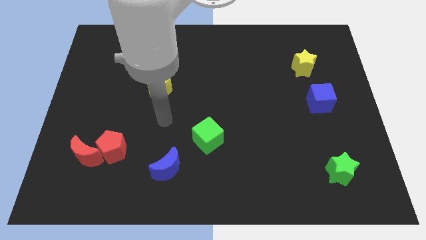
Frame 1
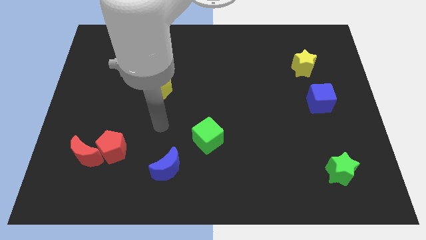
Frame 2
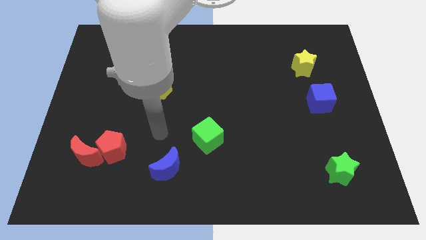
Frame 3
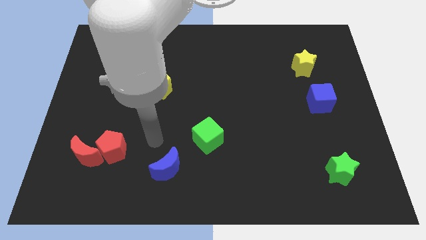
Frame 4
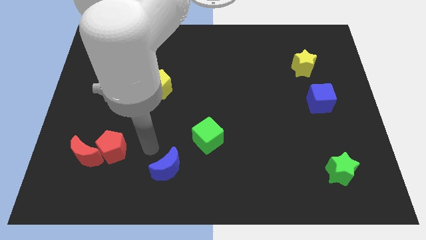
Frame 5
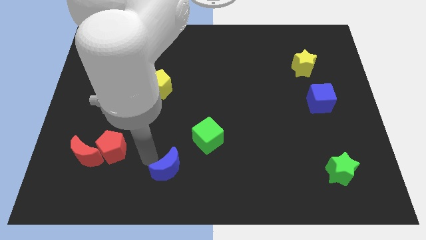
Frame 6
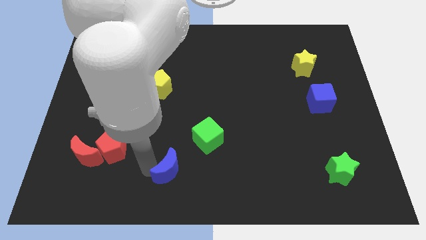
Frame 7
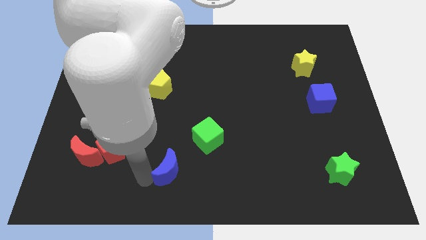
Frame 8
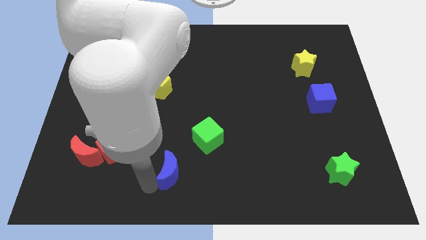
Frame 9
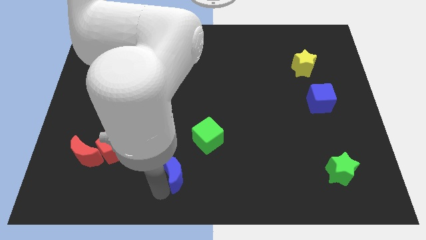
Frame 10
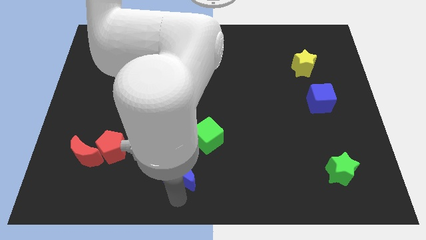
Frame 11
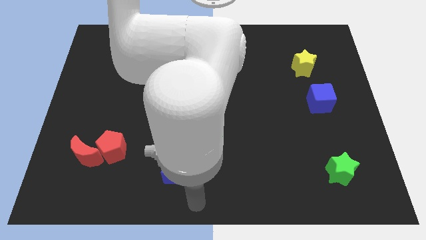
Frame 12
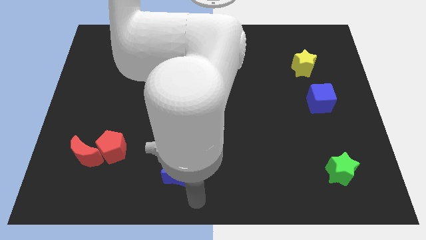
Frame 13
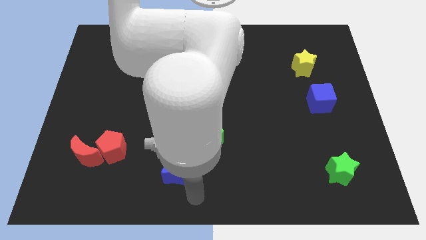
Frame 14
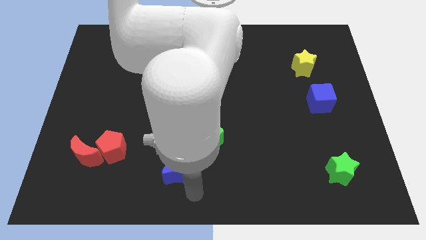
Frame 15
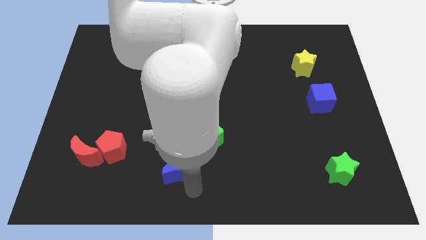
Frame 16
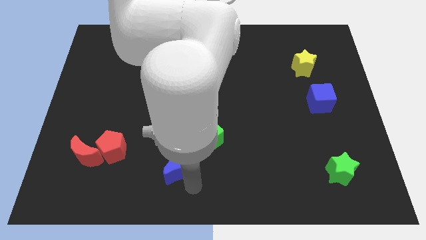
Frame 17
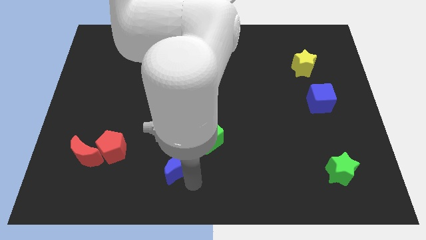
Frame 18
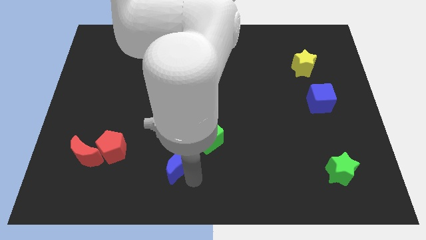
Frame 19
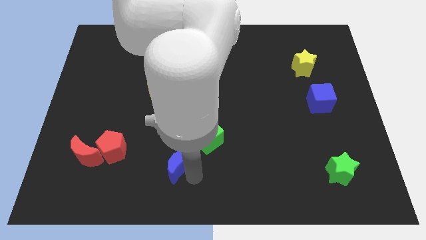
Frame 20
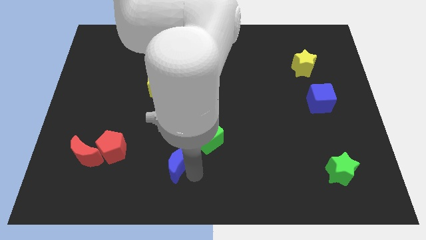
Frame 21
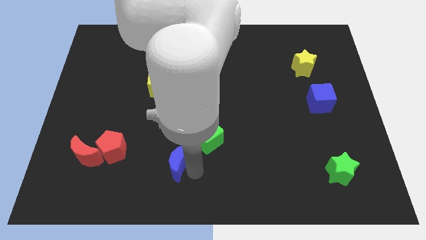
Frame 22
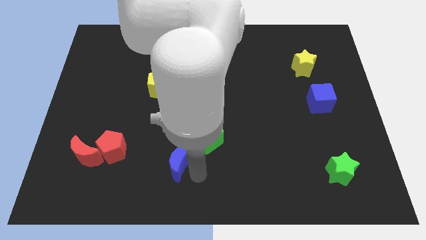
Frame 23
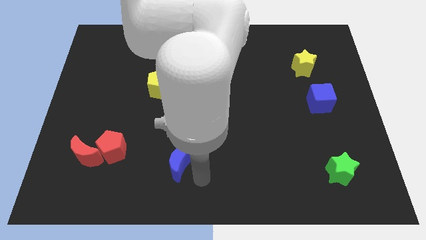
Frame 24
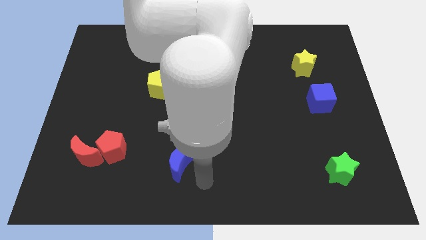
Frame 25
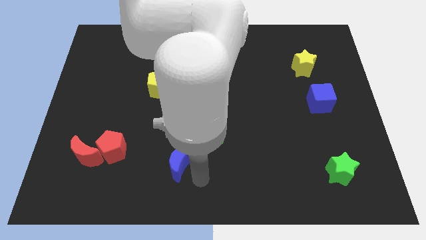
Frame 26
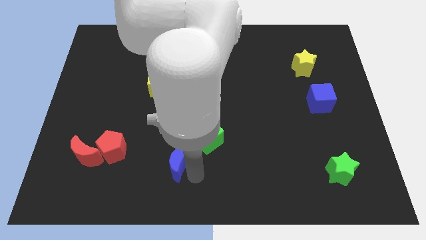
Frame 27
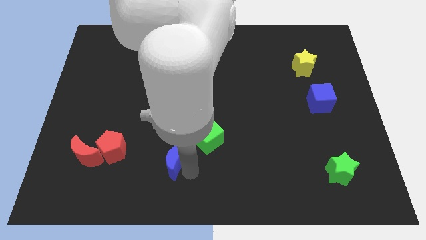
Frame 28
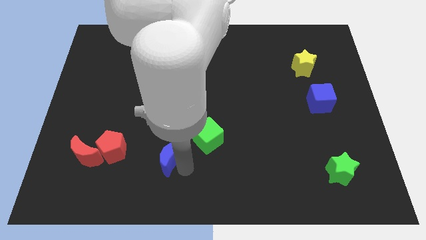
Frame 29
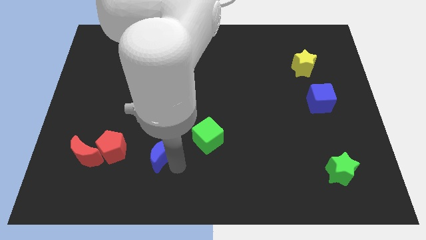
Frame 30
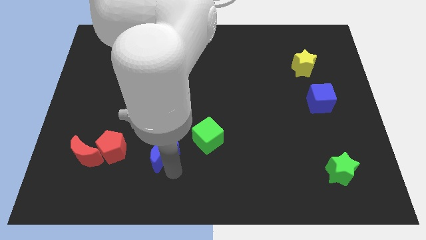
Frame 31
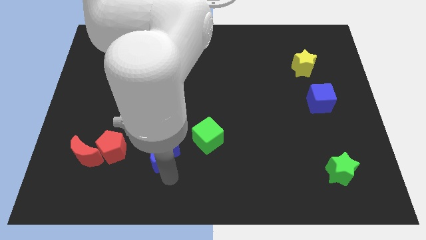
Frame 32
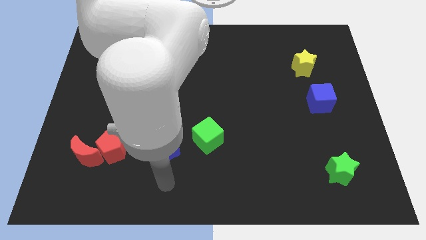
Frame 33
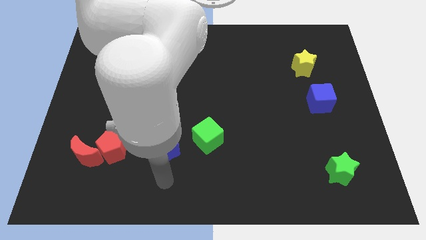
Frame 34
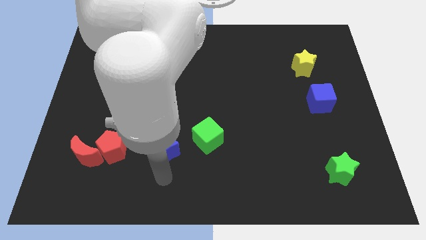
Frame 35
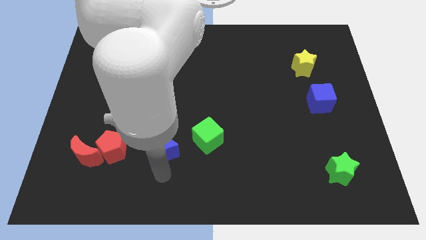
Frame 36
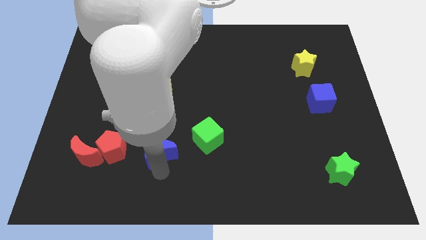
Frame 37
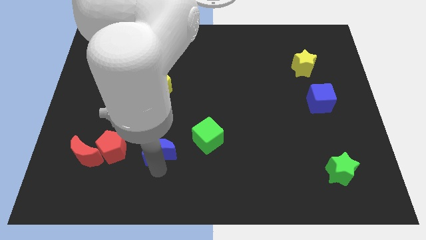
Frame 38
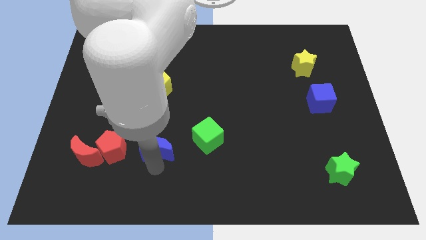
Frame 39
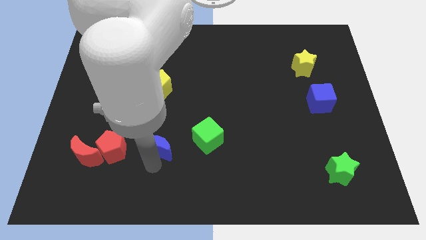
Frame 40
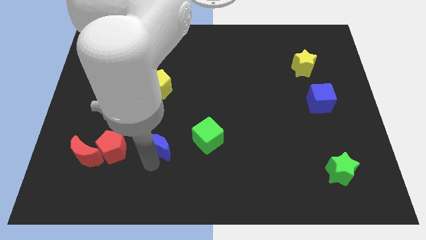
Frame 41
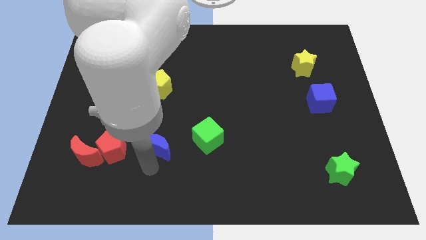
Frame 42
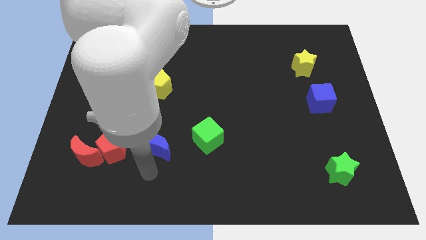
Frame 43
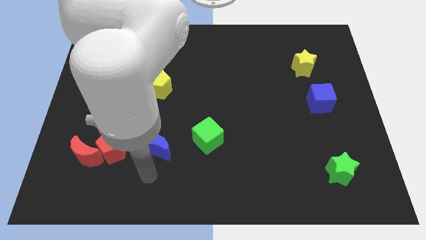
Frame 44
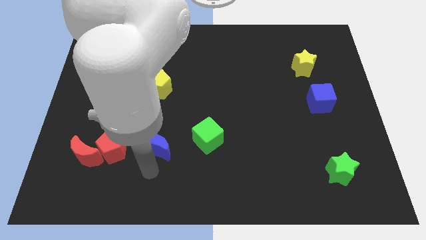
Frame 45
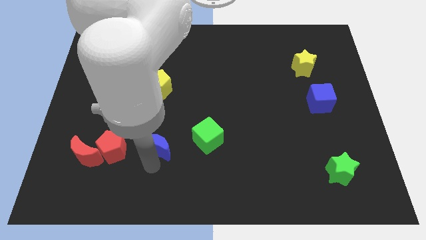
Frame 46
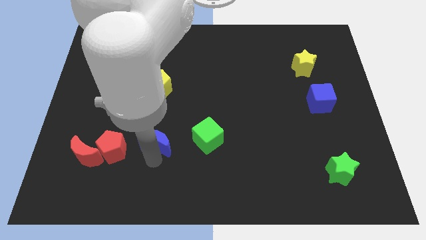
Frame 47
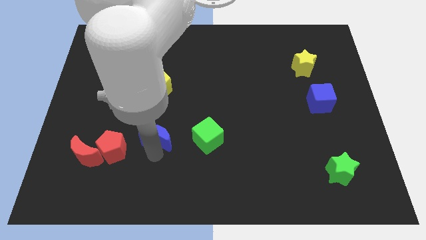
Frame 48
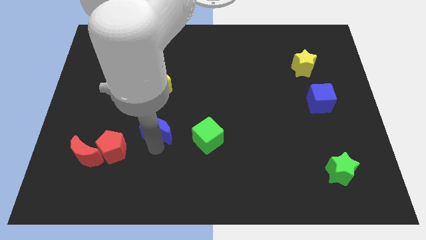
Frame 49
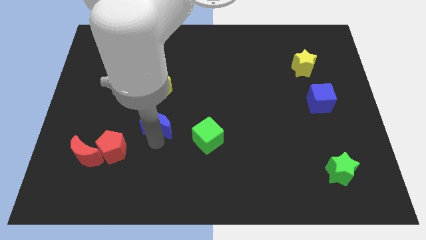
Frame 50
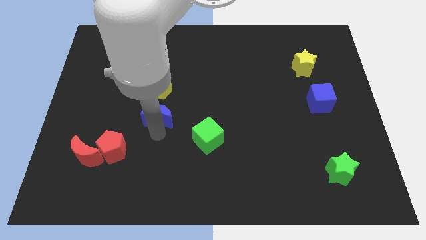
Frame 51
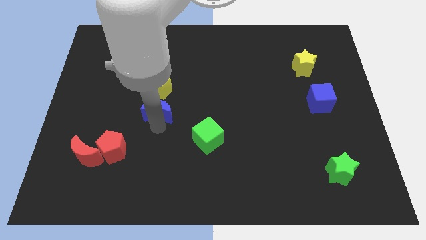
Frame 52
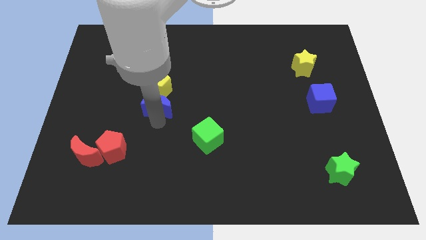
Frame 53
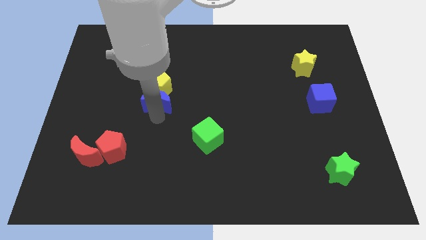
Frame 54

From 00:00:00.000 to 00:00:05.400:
put the blue moon next to the yellow pentagon

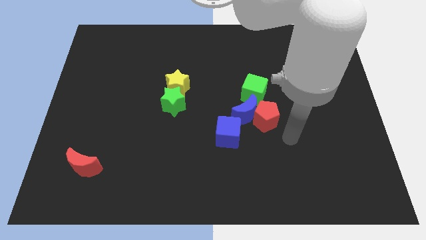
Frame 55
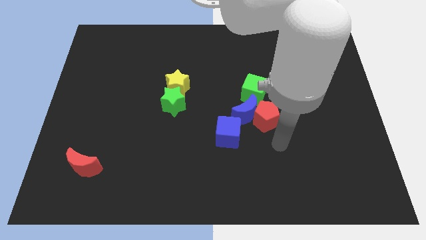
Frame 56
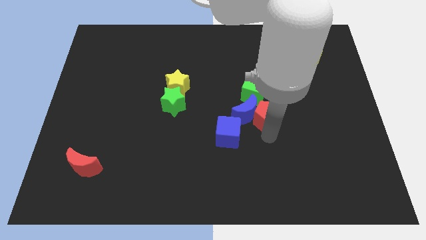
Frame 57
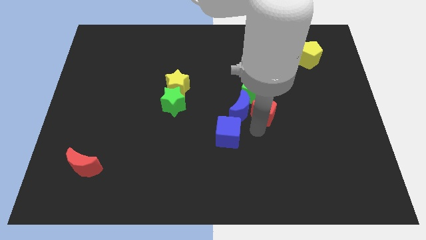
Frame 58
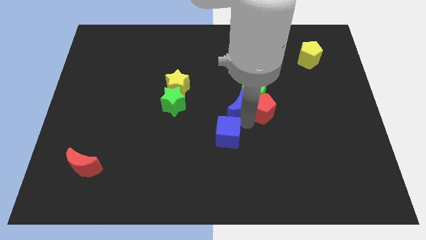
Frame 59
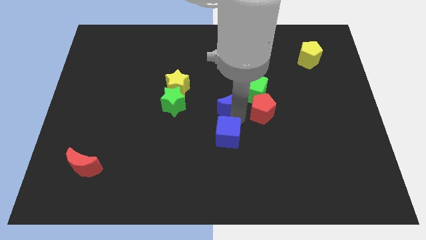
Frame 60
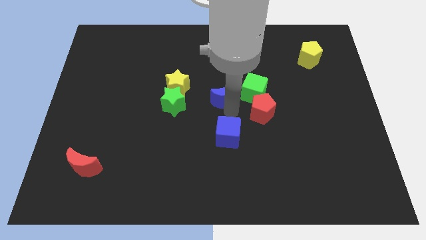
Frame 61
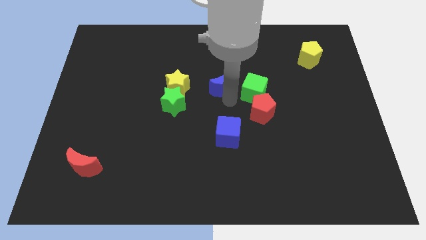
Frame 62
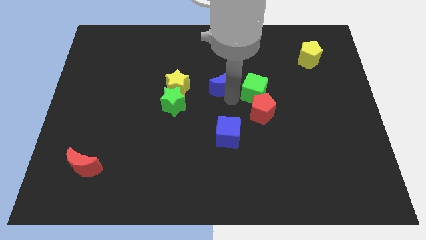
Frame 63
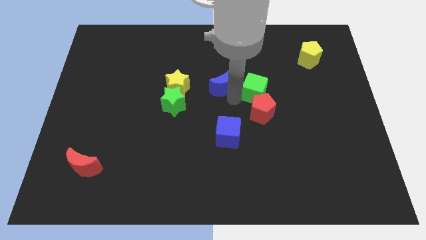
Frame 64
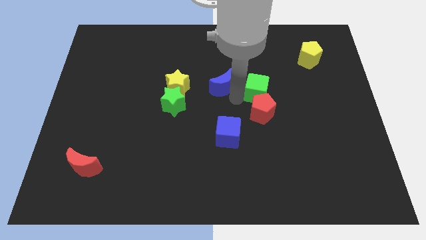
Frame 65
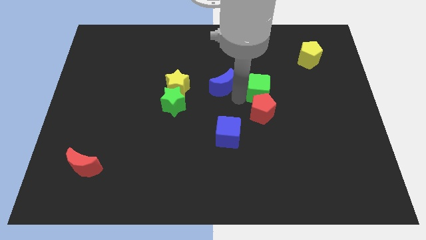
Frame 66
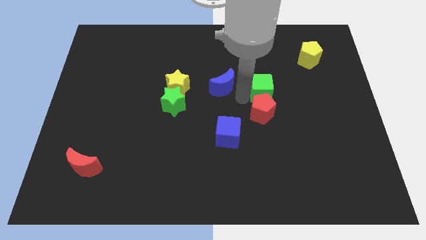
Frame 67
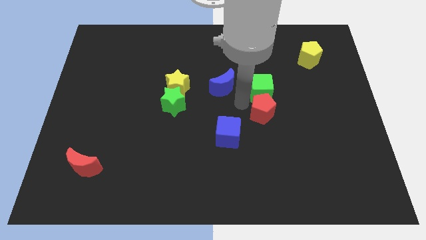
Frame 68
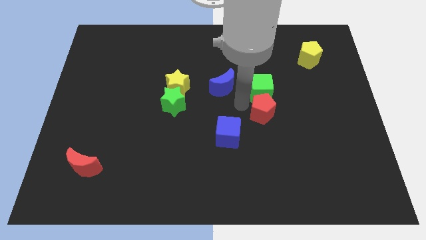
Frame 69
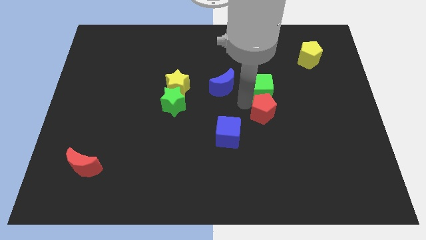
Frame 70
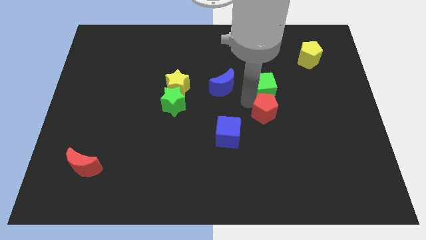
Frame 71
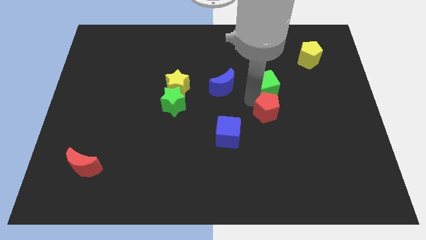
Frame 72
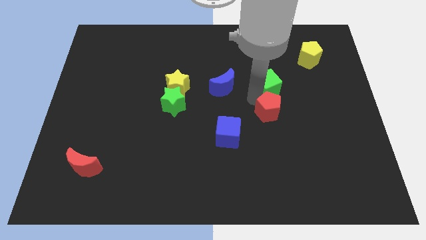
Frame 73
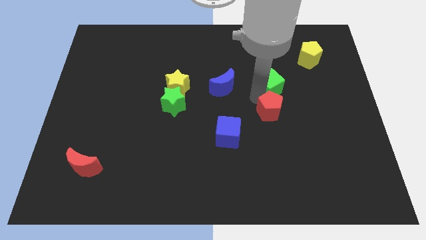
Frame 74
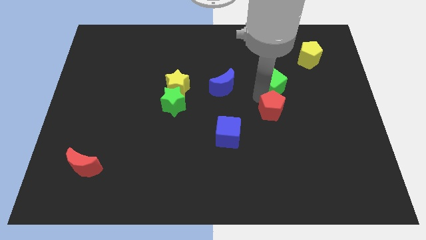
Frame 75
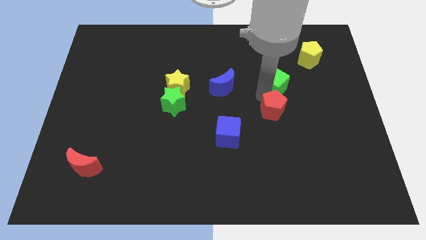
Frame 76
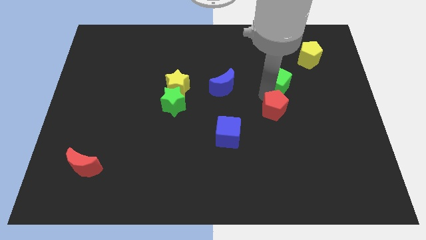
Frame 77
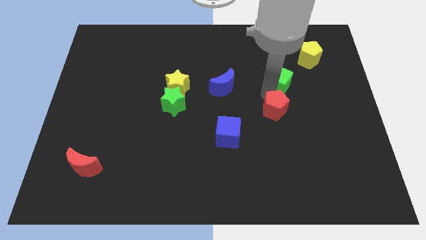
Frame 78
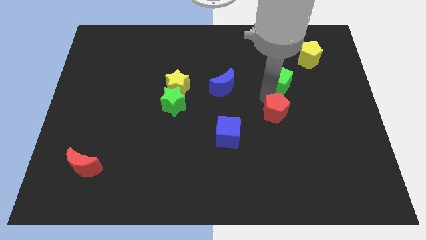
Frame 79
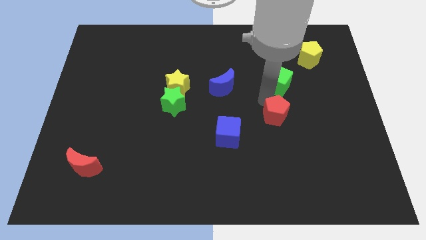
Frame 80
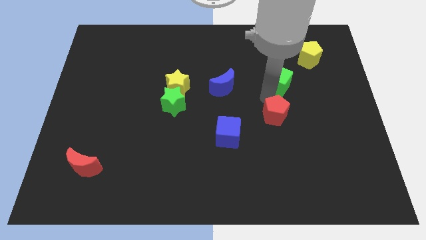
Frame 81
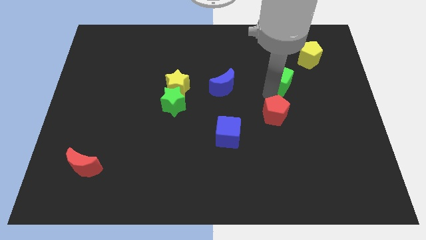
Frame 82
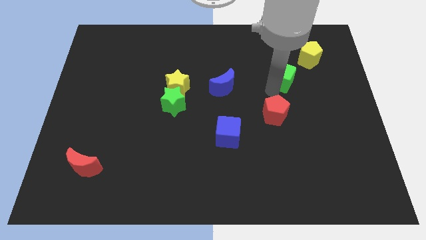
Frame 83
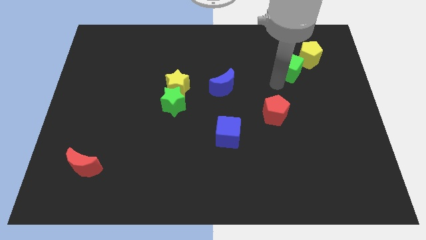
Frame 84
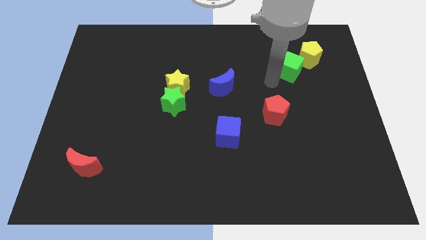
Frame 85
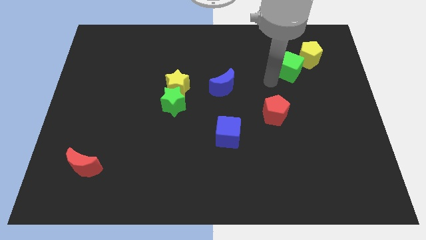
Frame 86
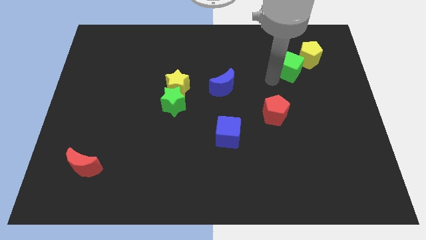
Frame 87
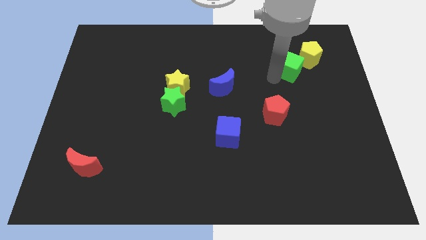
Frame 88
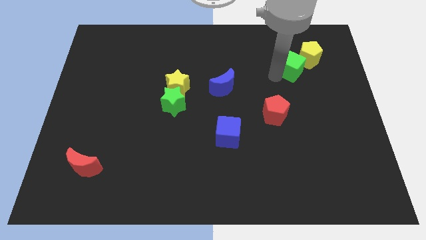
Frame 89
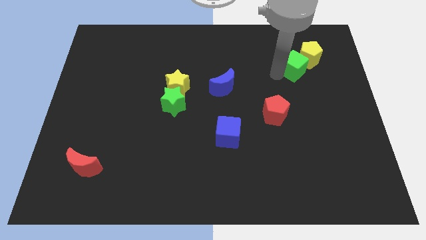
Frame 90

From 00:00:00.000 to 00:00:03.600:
slide the green cube close to the yellow pentagon
